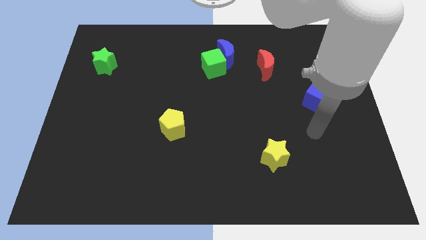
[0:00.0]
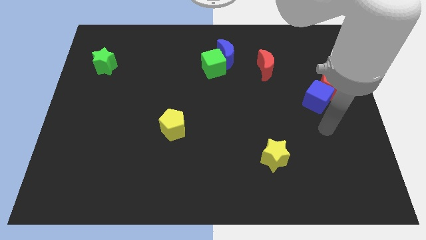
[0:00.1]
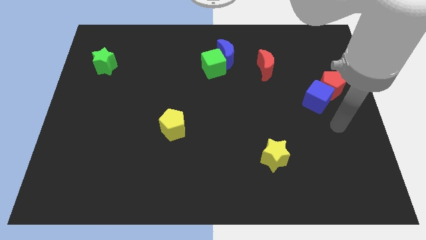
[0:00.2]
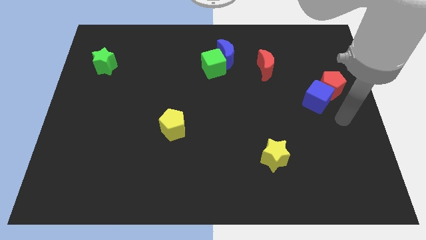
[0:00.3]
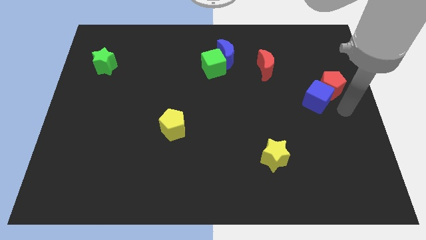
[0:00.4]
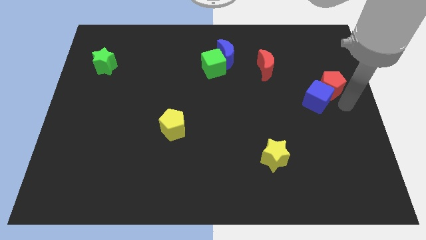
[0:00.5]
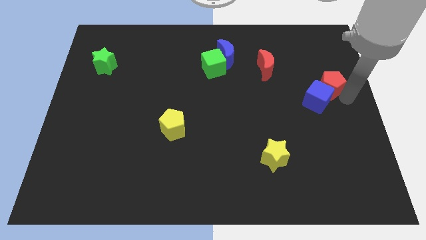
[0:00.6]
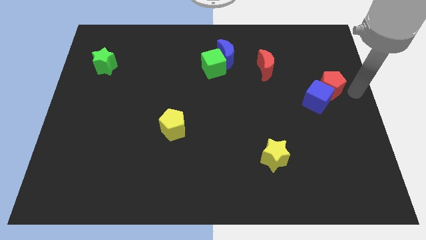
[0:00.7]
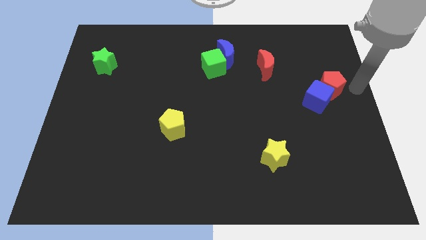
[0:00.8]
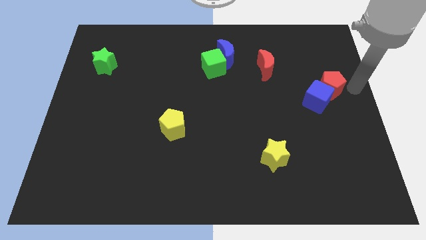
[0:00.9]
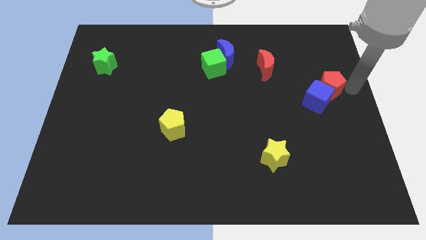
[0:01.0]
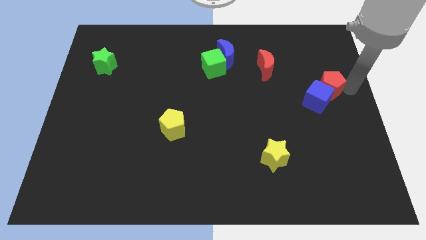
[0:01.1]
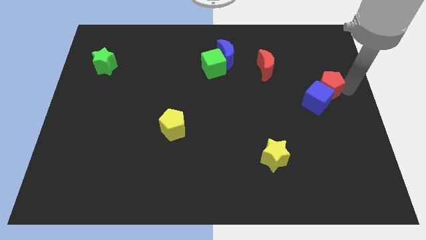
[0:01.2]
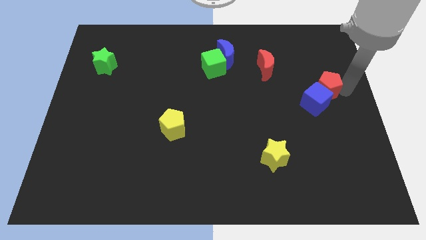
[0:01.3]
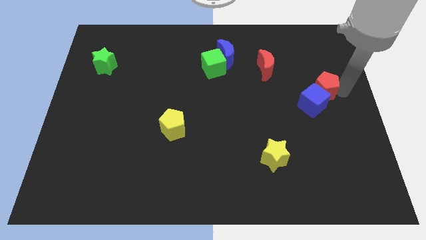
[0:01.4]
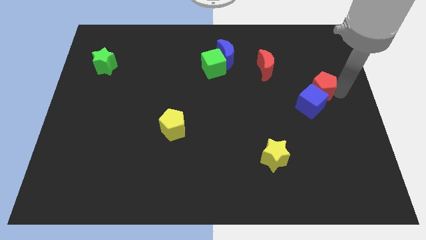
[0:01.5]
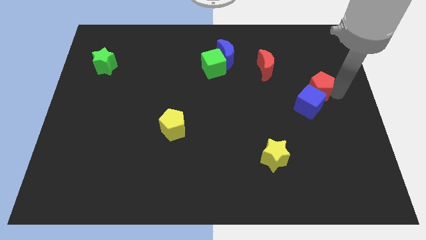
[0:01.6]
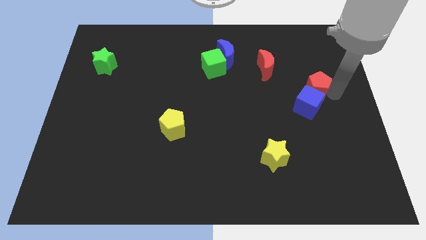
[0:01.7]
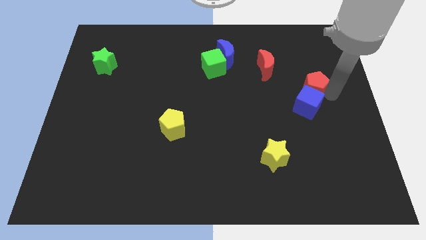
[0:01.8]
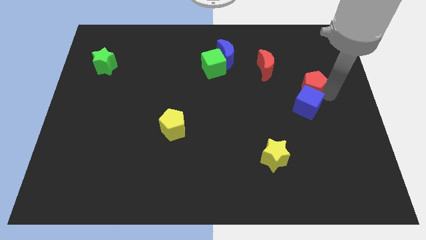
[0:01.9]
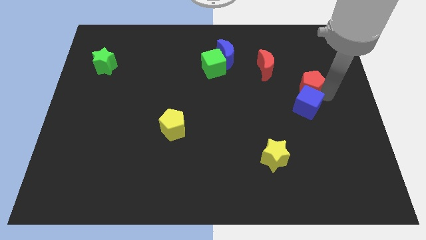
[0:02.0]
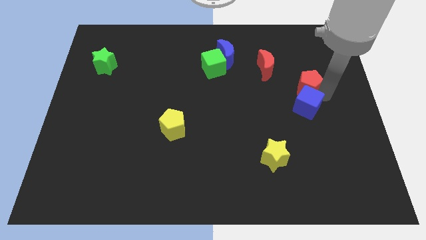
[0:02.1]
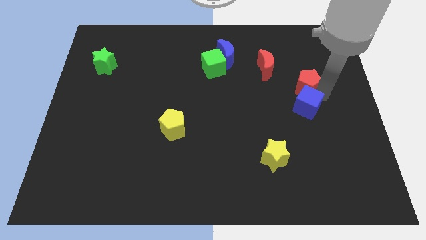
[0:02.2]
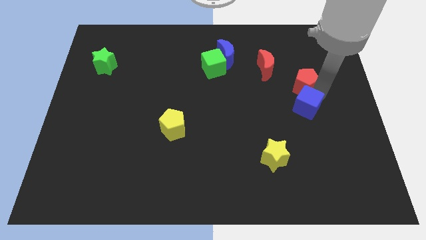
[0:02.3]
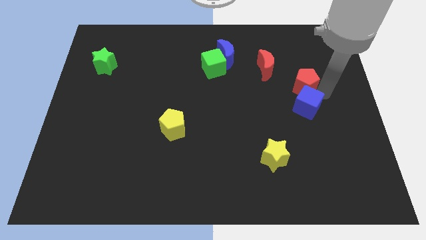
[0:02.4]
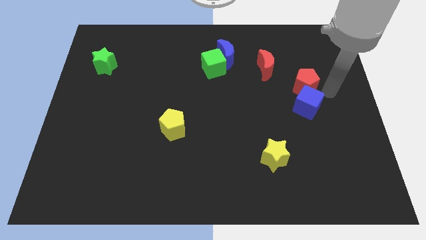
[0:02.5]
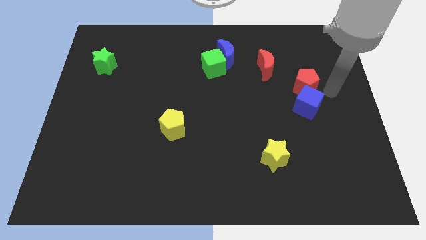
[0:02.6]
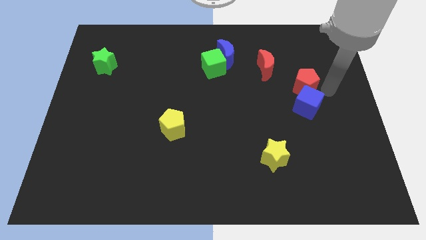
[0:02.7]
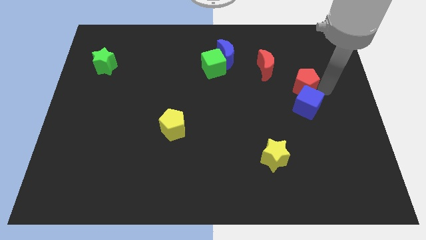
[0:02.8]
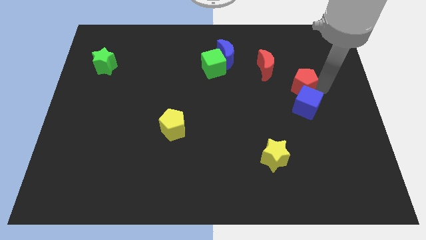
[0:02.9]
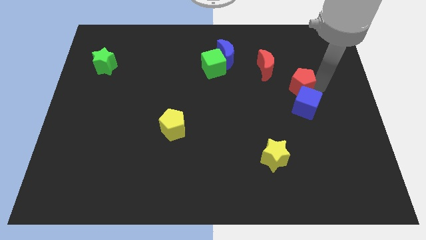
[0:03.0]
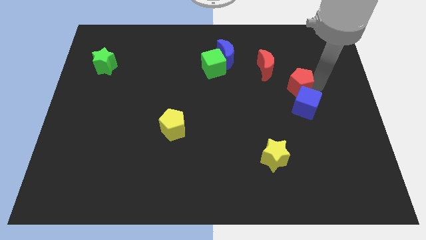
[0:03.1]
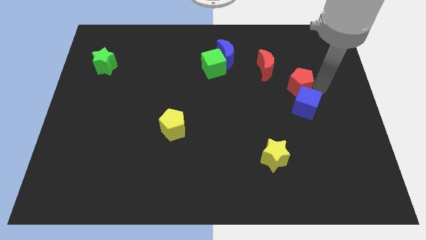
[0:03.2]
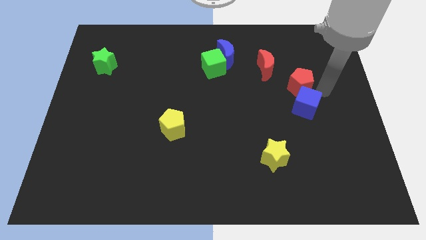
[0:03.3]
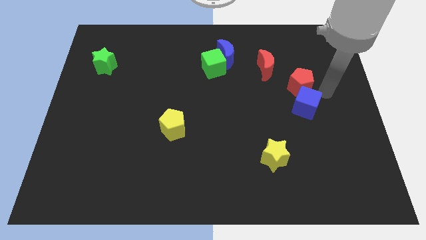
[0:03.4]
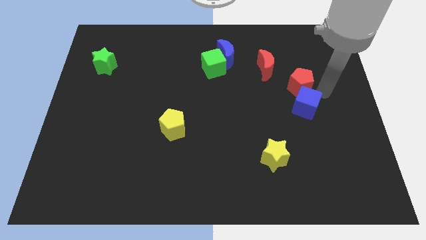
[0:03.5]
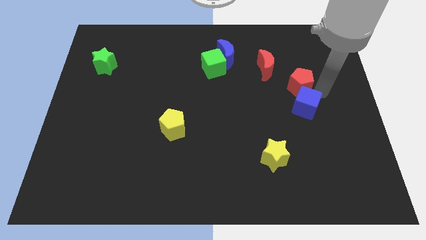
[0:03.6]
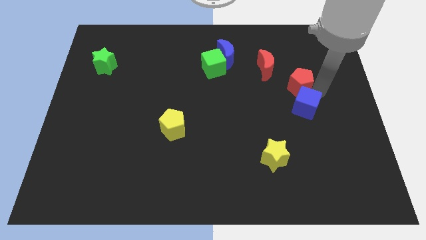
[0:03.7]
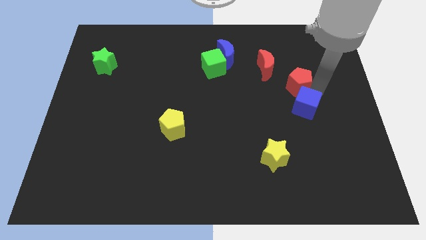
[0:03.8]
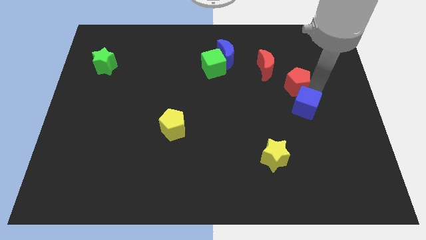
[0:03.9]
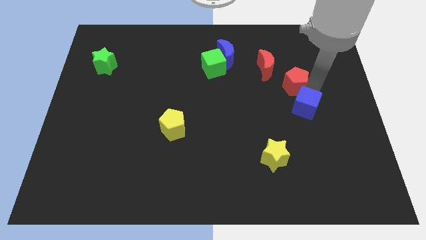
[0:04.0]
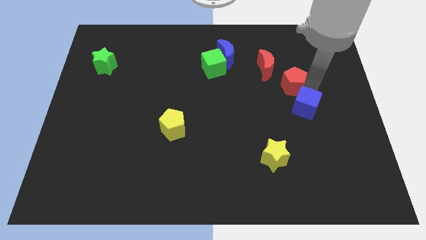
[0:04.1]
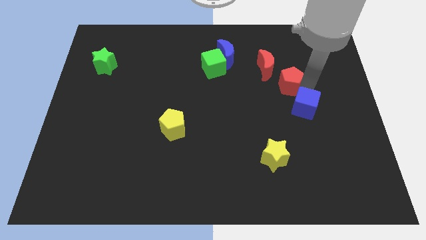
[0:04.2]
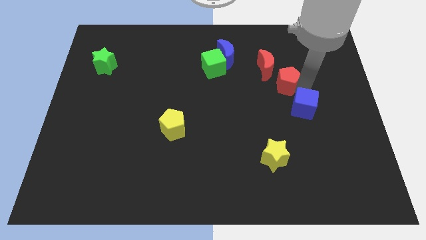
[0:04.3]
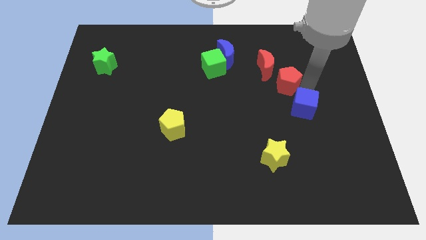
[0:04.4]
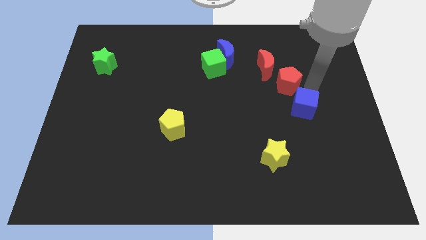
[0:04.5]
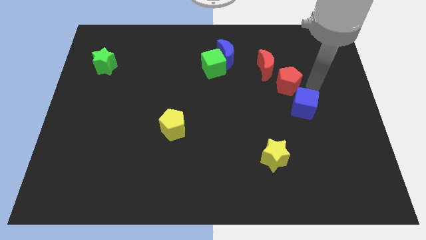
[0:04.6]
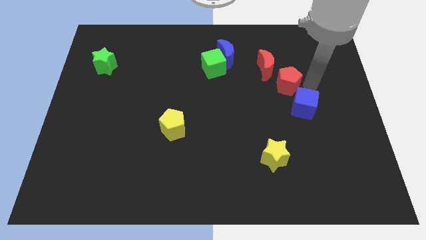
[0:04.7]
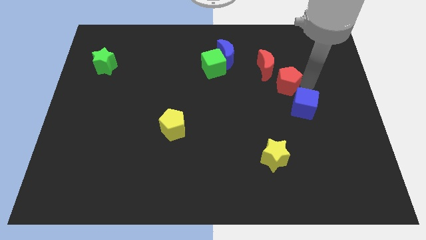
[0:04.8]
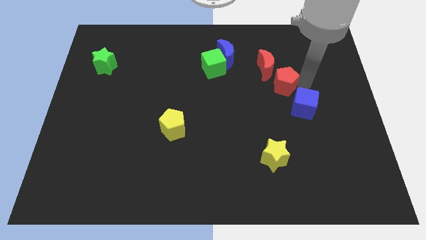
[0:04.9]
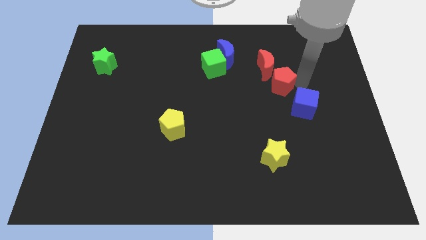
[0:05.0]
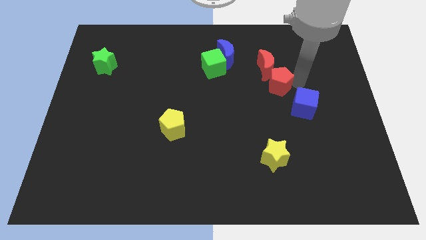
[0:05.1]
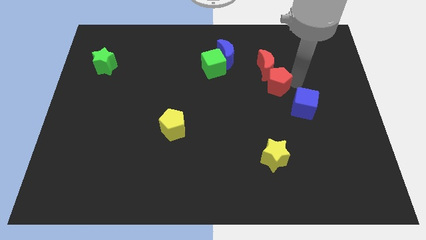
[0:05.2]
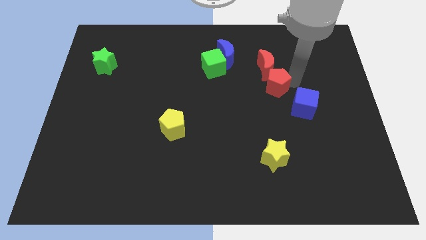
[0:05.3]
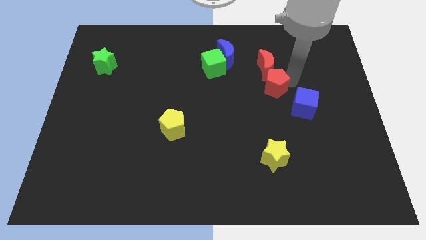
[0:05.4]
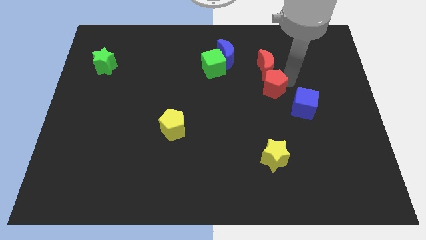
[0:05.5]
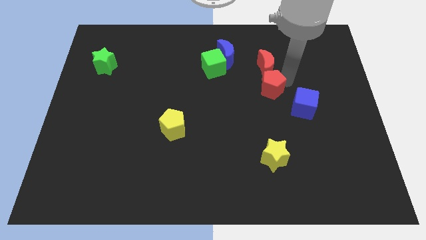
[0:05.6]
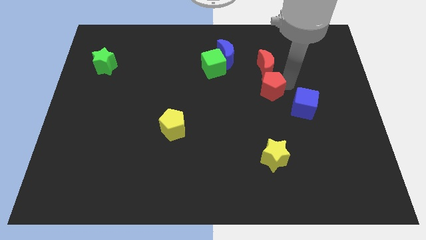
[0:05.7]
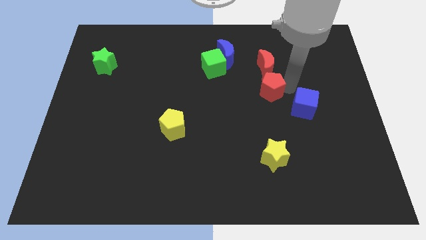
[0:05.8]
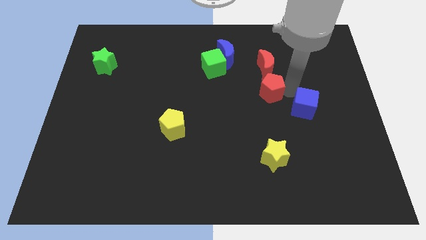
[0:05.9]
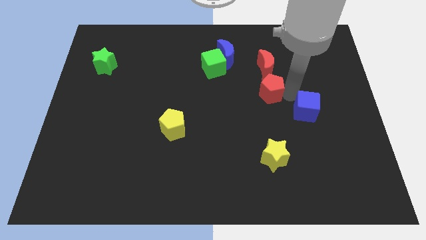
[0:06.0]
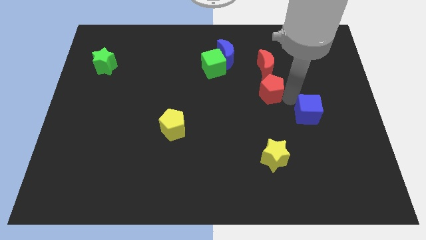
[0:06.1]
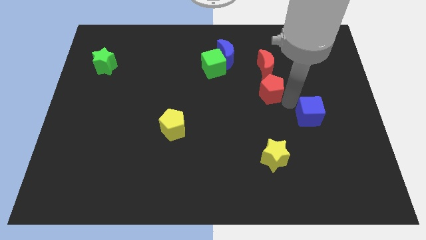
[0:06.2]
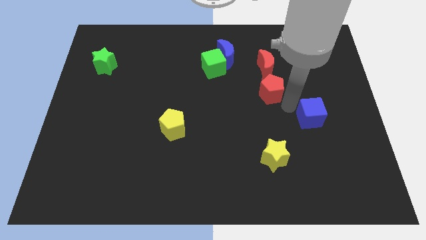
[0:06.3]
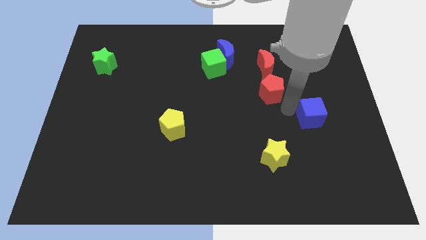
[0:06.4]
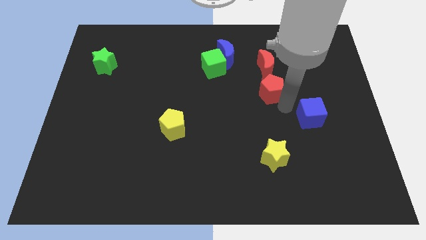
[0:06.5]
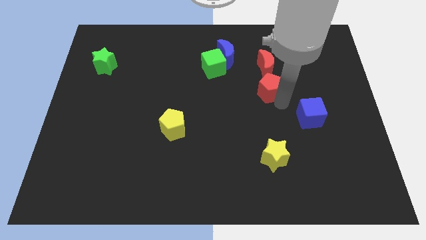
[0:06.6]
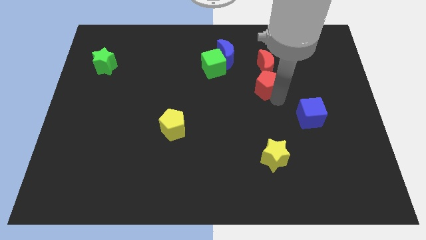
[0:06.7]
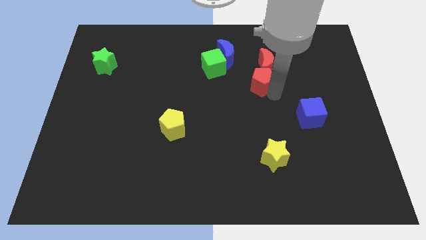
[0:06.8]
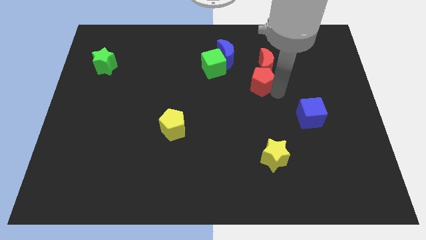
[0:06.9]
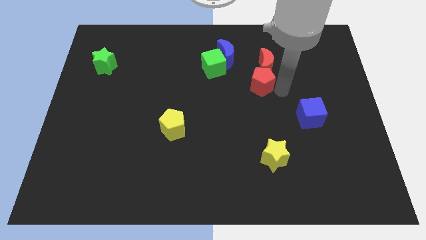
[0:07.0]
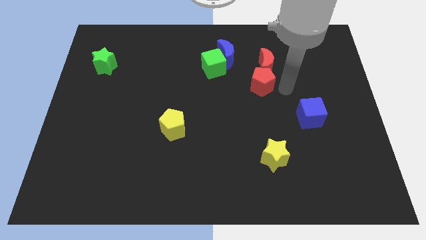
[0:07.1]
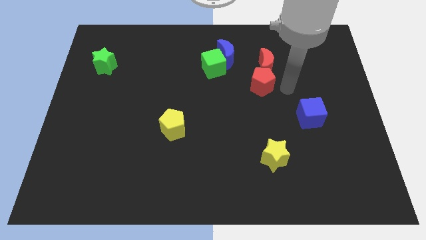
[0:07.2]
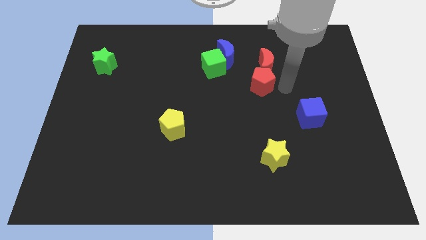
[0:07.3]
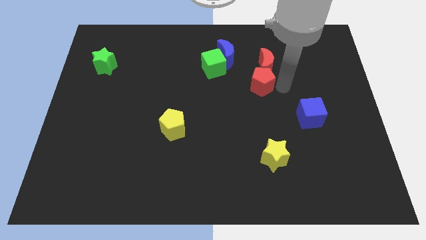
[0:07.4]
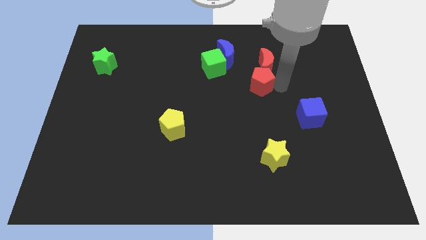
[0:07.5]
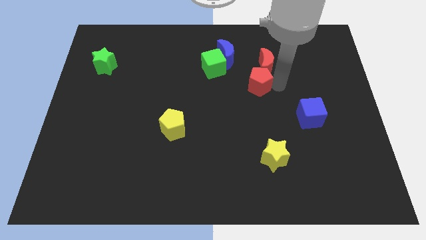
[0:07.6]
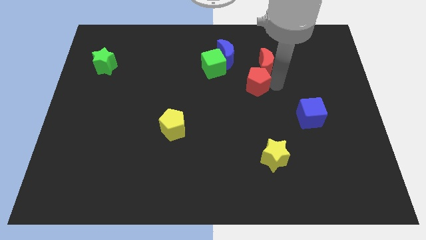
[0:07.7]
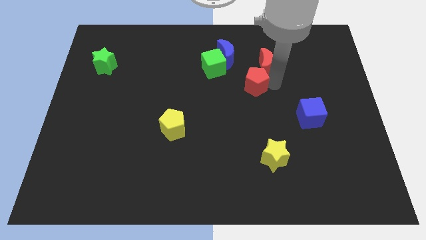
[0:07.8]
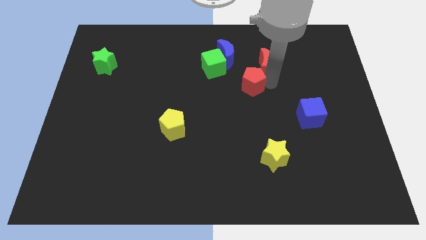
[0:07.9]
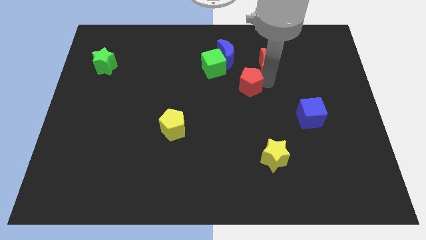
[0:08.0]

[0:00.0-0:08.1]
slide the red pentagon left
